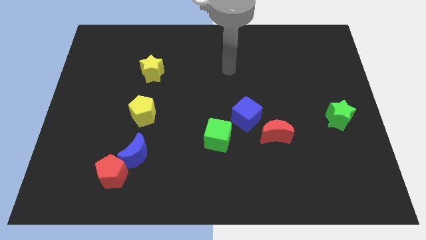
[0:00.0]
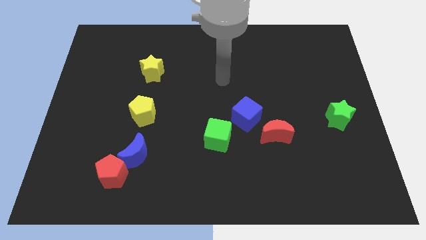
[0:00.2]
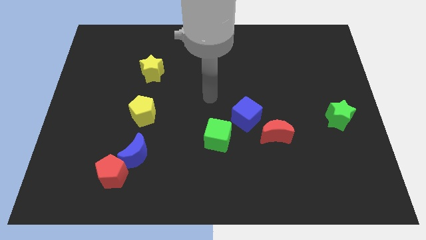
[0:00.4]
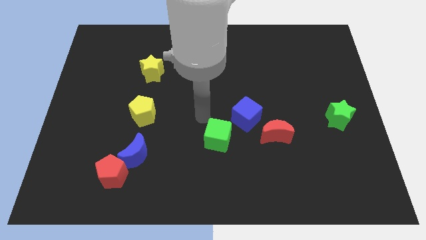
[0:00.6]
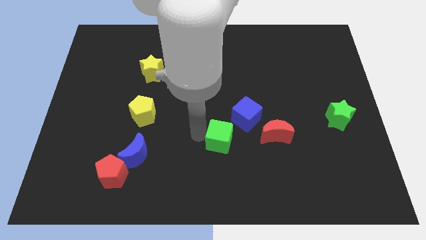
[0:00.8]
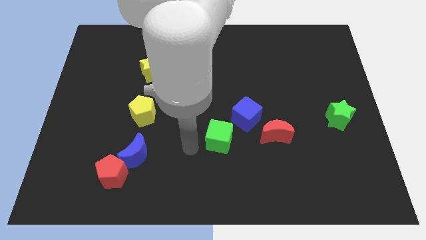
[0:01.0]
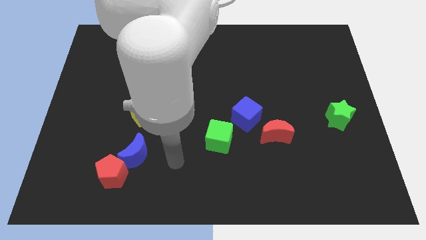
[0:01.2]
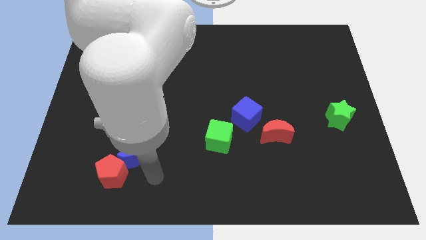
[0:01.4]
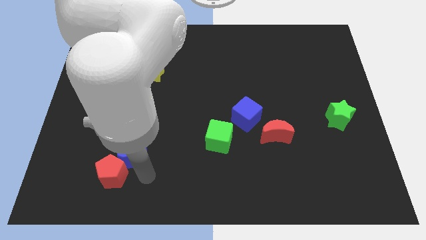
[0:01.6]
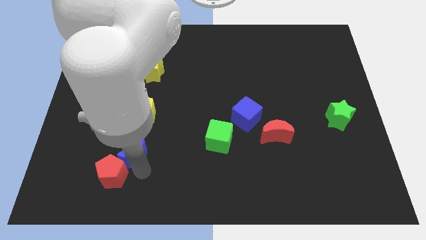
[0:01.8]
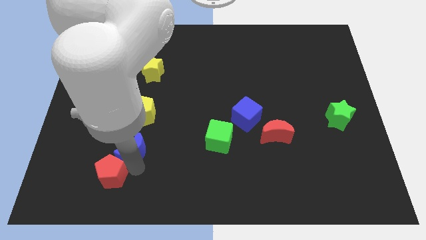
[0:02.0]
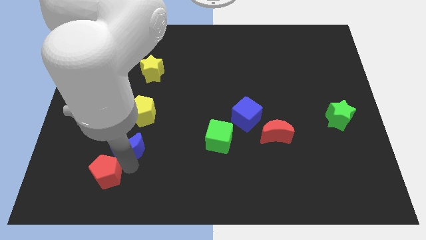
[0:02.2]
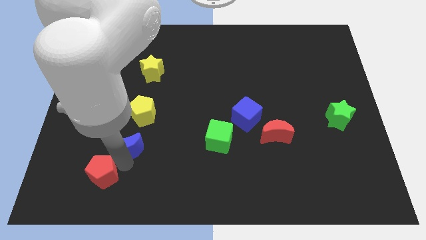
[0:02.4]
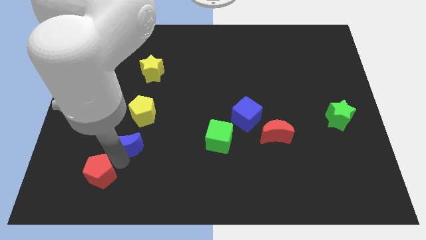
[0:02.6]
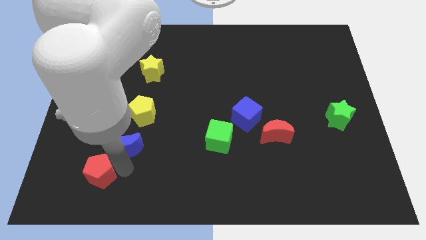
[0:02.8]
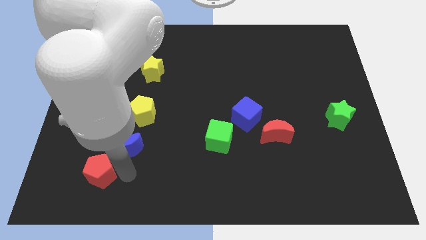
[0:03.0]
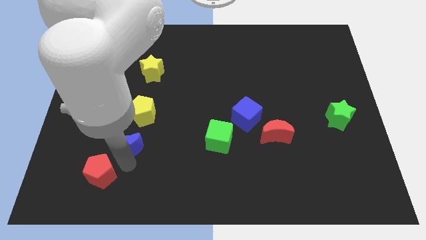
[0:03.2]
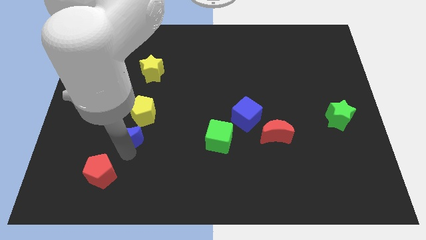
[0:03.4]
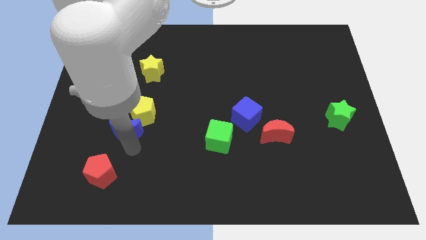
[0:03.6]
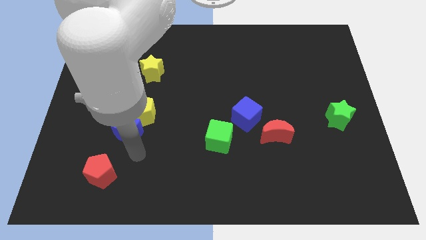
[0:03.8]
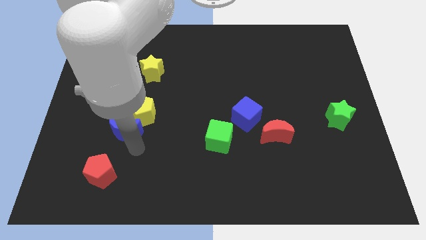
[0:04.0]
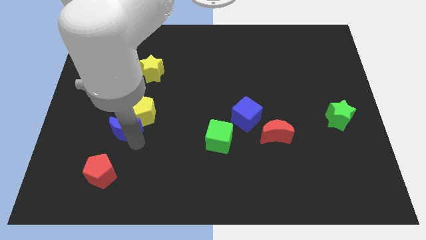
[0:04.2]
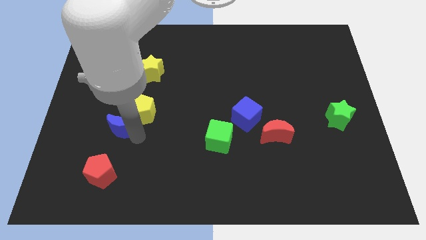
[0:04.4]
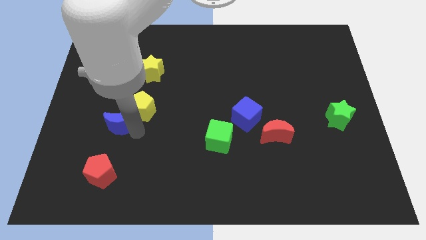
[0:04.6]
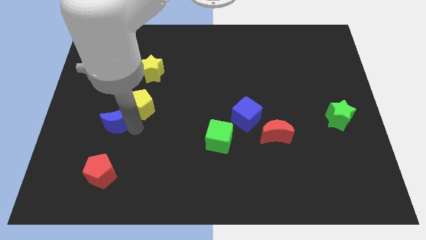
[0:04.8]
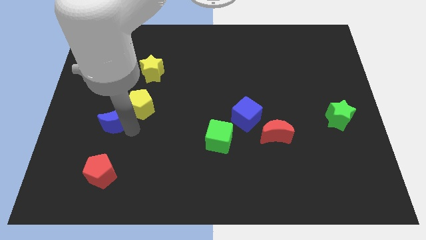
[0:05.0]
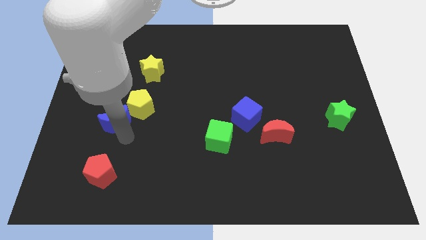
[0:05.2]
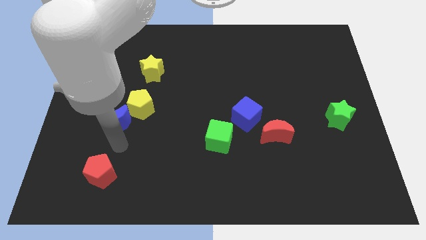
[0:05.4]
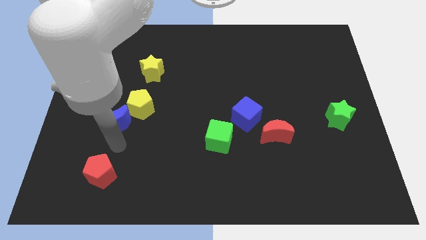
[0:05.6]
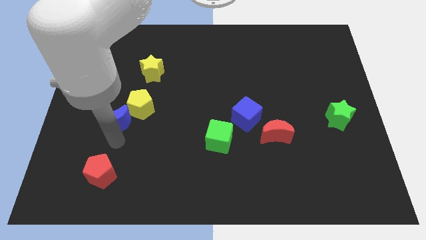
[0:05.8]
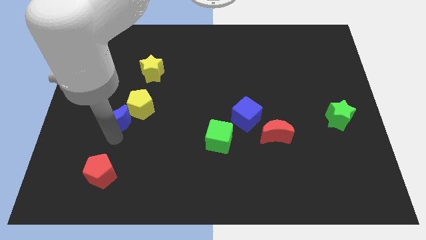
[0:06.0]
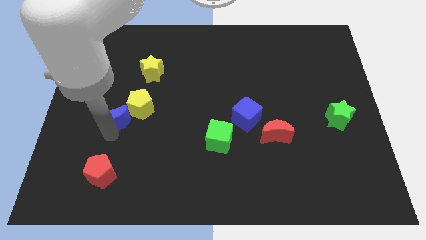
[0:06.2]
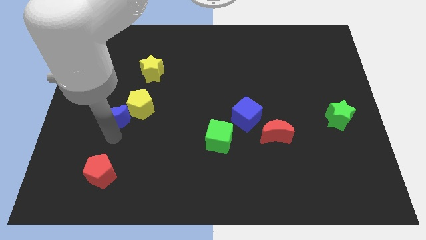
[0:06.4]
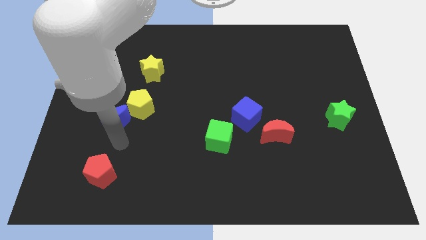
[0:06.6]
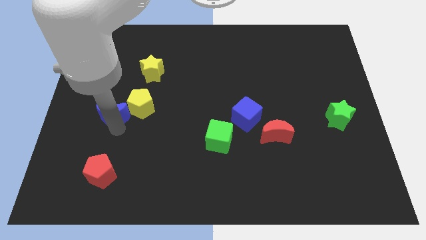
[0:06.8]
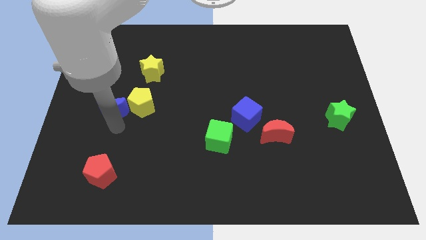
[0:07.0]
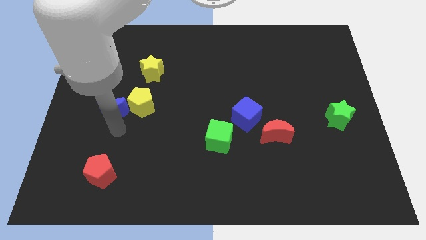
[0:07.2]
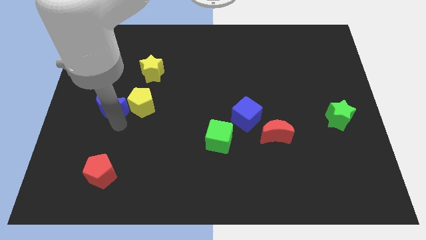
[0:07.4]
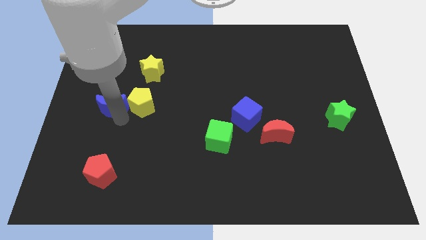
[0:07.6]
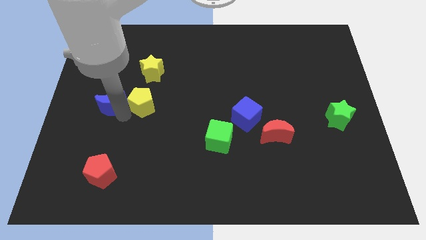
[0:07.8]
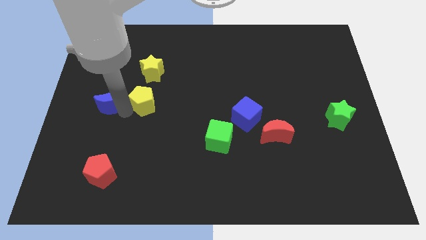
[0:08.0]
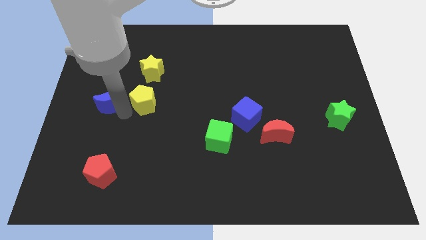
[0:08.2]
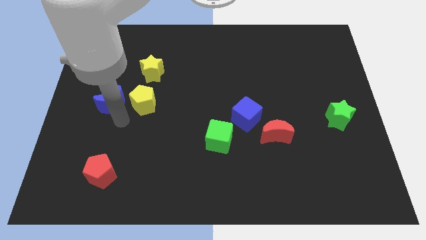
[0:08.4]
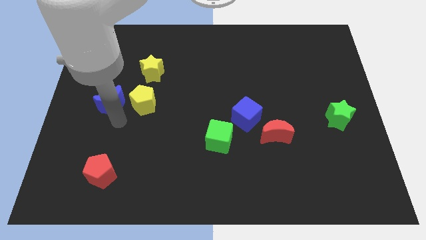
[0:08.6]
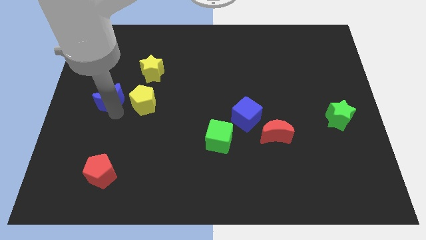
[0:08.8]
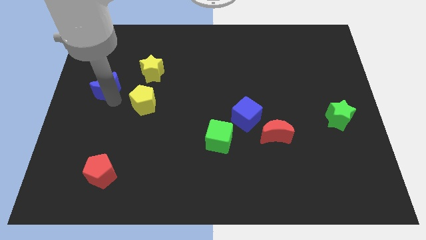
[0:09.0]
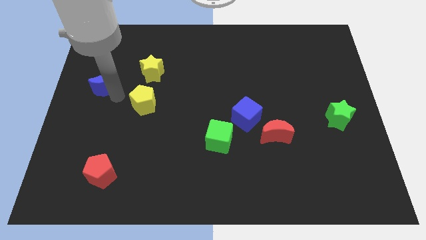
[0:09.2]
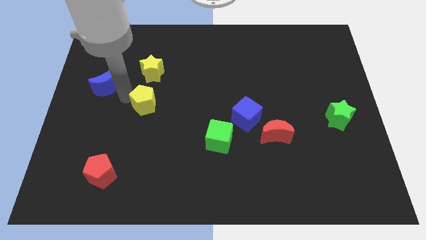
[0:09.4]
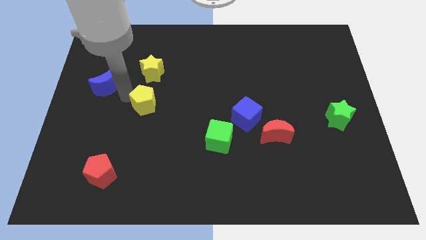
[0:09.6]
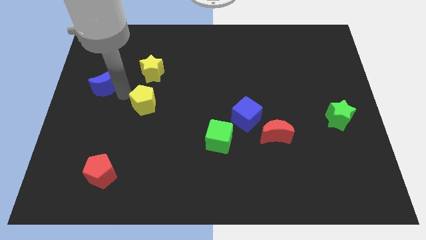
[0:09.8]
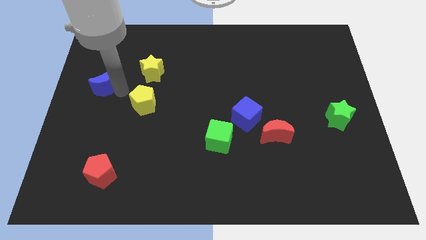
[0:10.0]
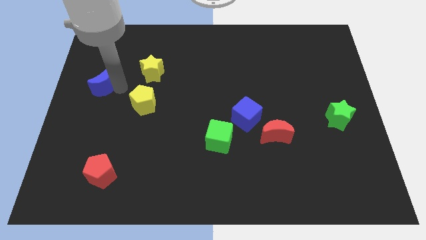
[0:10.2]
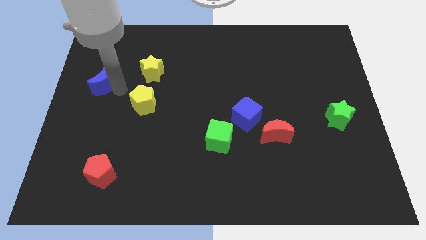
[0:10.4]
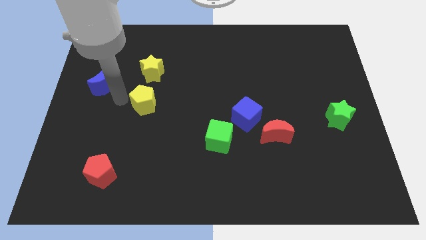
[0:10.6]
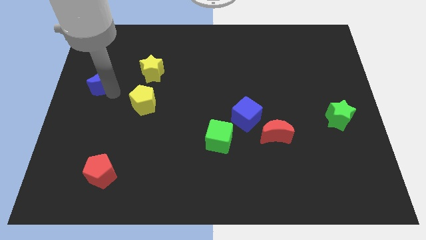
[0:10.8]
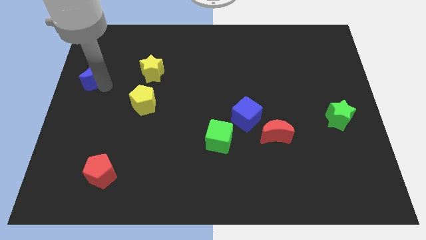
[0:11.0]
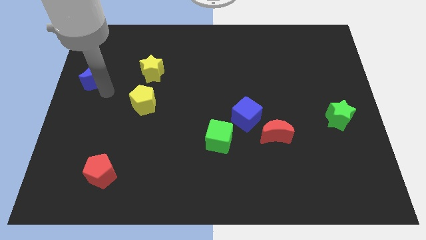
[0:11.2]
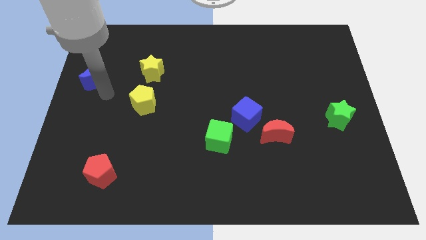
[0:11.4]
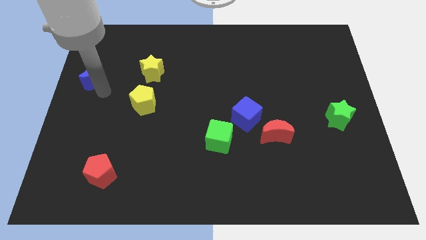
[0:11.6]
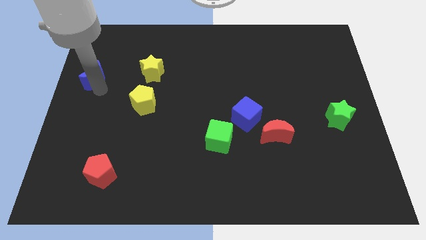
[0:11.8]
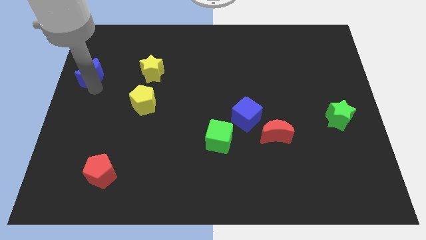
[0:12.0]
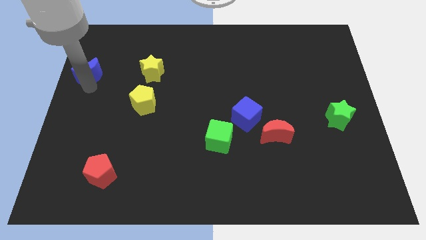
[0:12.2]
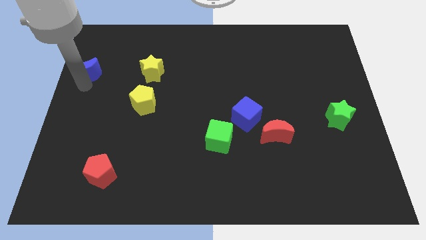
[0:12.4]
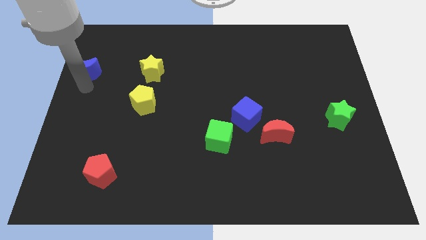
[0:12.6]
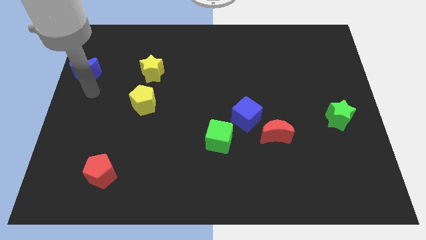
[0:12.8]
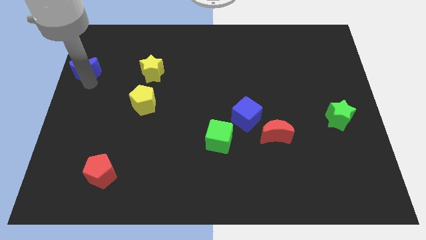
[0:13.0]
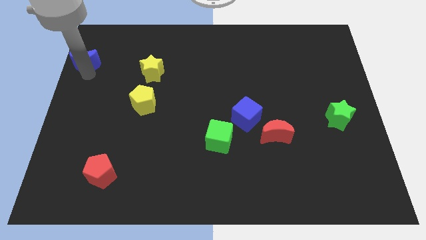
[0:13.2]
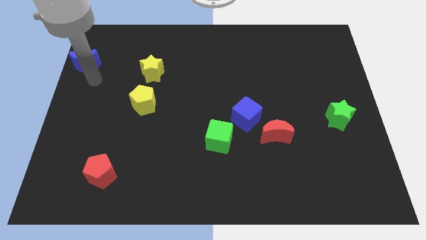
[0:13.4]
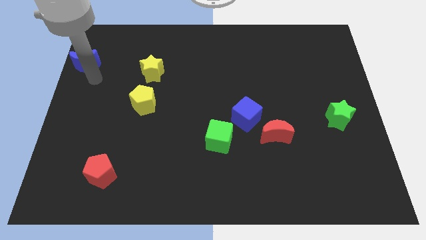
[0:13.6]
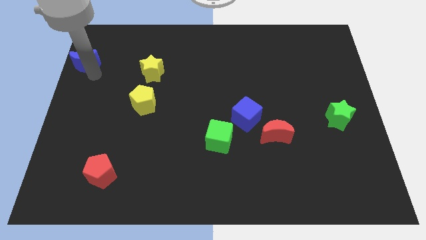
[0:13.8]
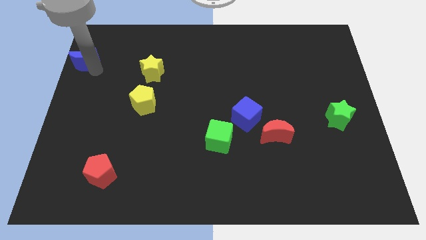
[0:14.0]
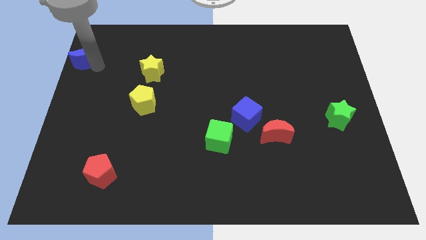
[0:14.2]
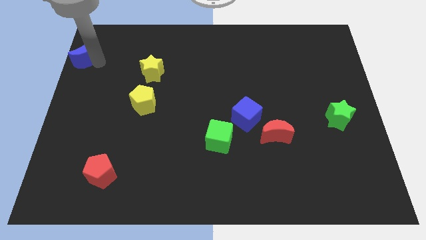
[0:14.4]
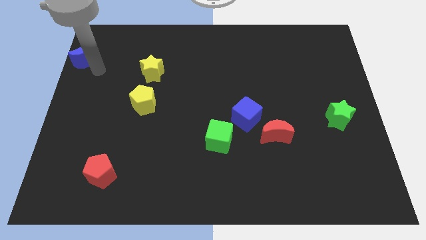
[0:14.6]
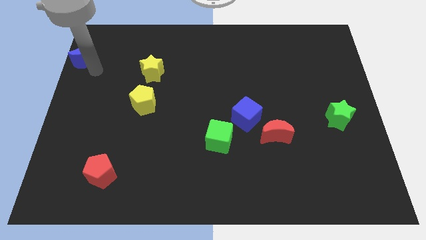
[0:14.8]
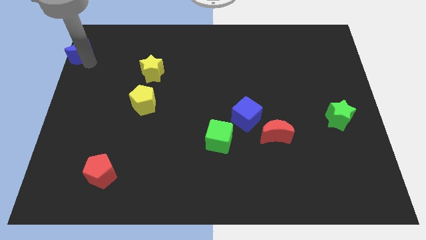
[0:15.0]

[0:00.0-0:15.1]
put the blue moon to the top left
